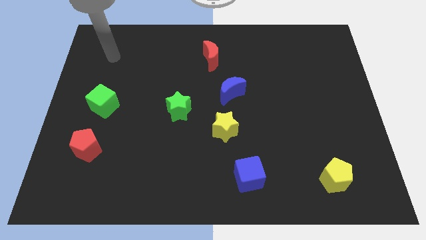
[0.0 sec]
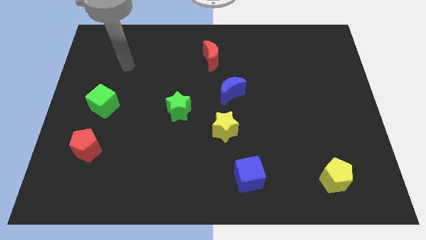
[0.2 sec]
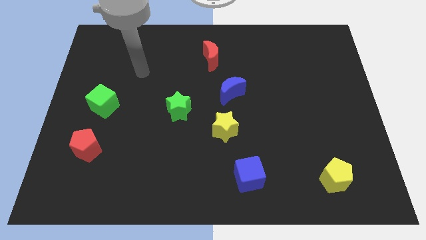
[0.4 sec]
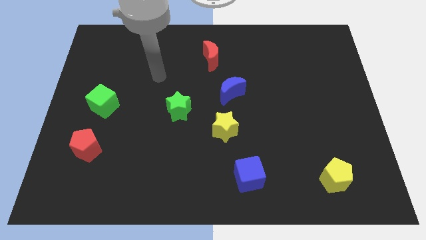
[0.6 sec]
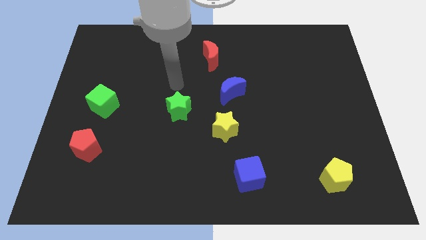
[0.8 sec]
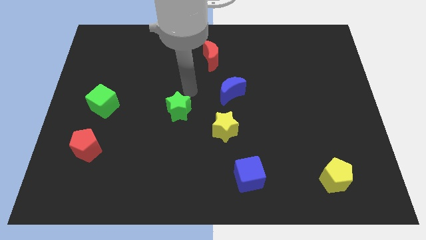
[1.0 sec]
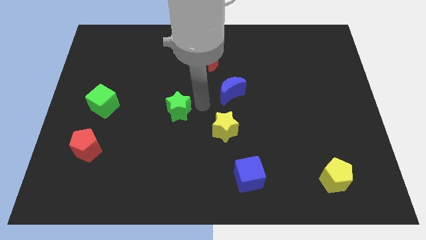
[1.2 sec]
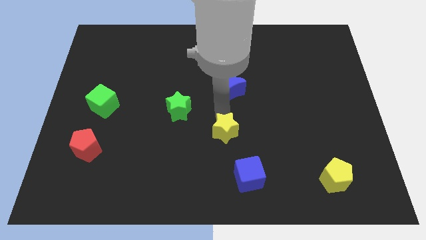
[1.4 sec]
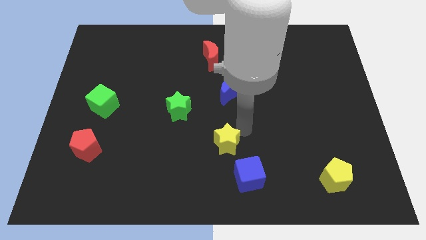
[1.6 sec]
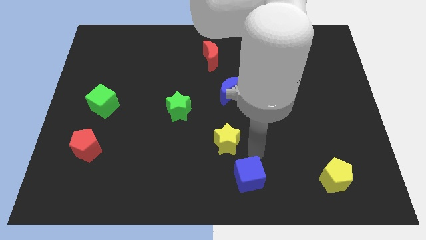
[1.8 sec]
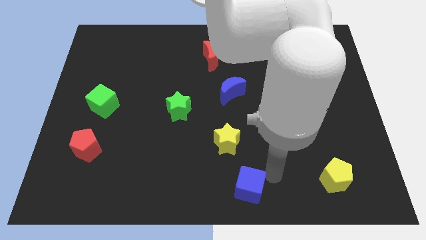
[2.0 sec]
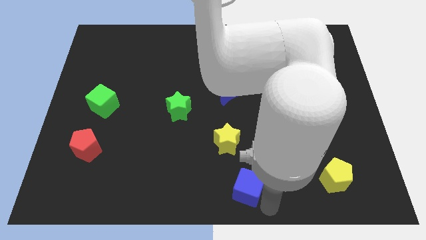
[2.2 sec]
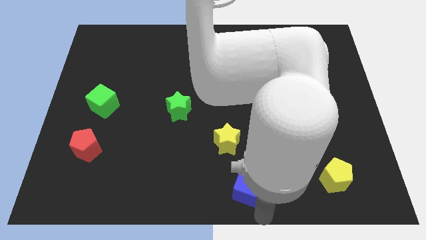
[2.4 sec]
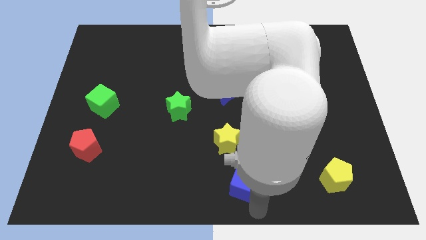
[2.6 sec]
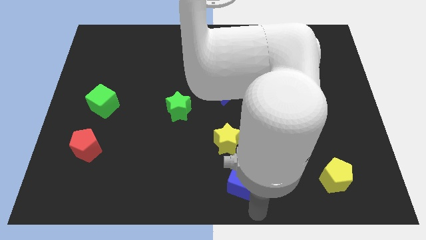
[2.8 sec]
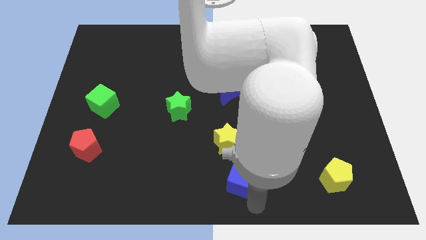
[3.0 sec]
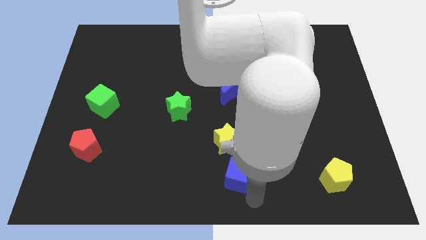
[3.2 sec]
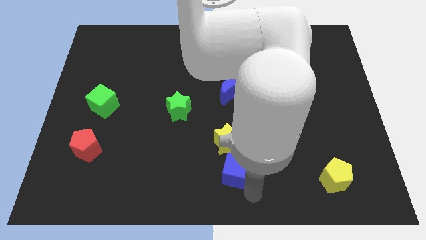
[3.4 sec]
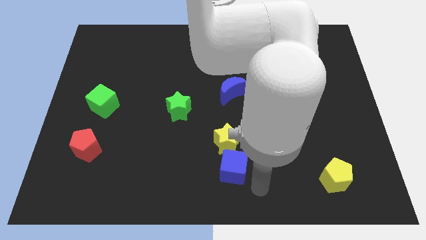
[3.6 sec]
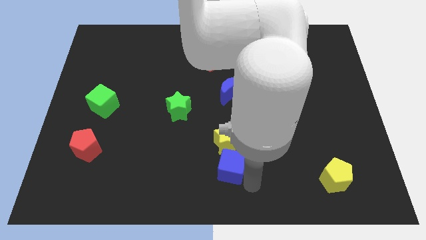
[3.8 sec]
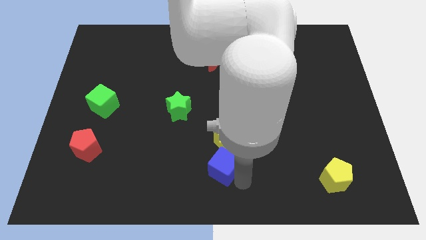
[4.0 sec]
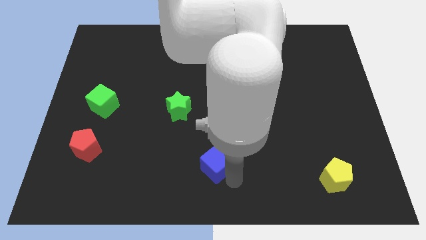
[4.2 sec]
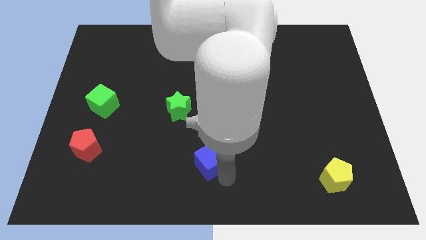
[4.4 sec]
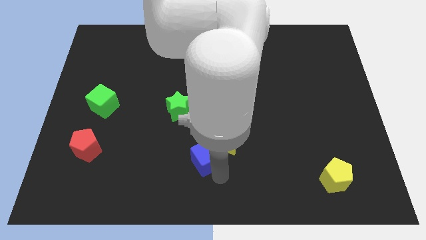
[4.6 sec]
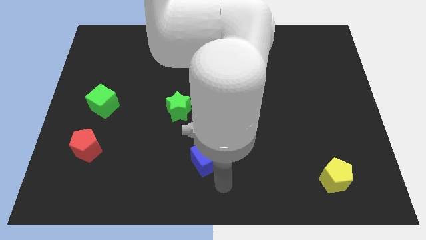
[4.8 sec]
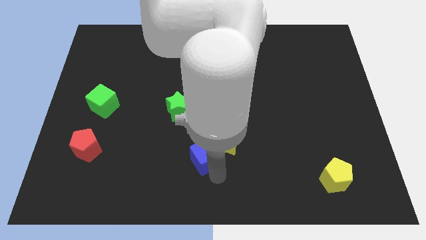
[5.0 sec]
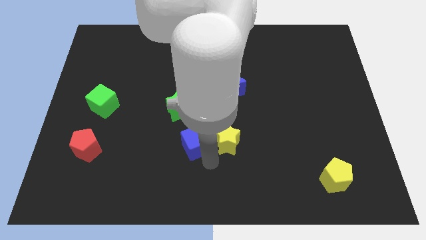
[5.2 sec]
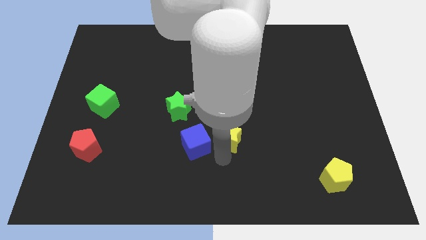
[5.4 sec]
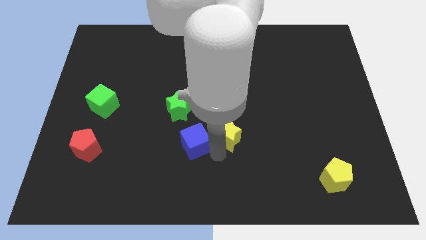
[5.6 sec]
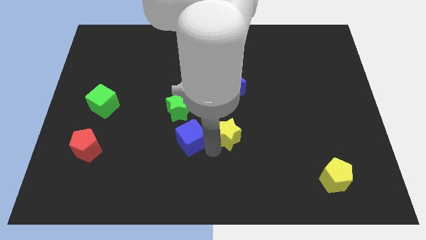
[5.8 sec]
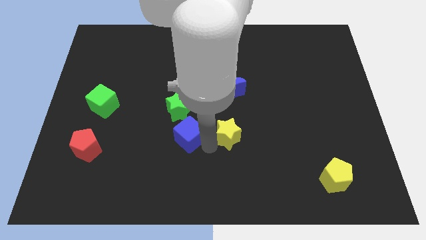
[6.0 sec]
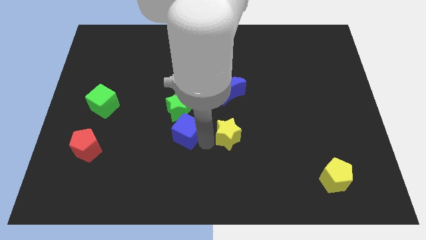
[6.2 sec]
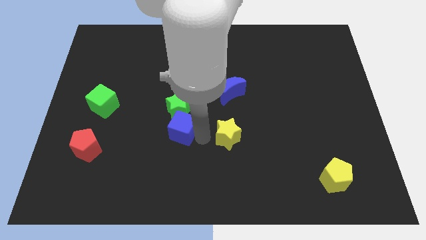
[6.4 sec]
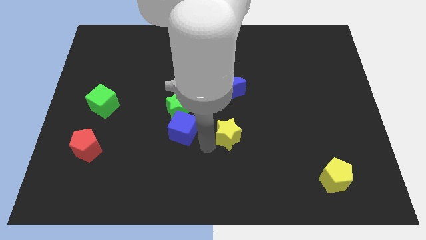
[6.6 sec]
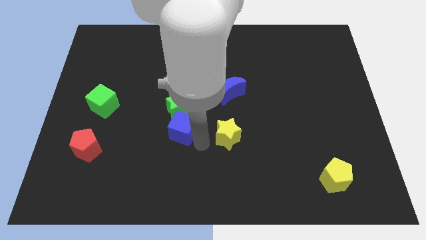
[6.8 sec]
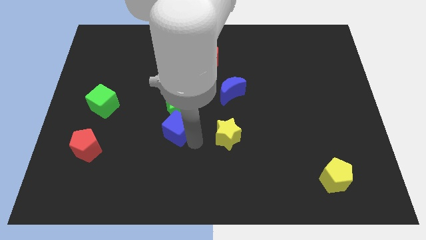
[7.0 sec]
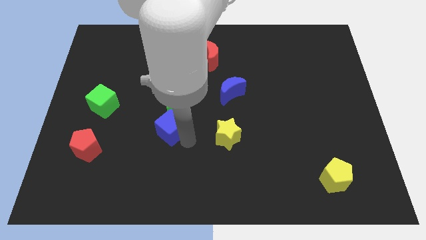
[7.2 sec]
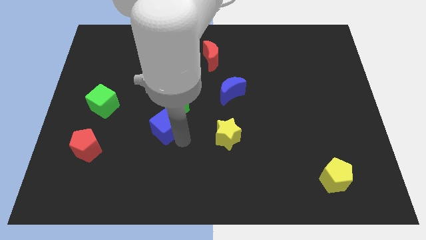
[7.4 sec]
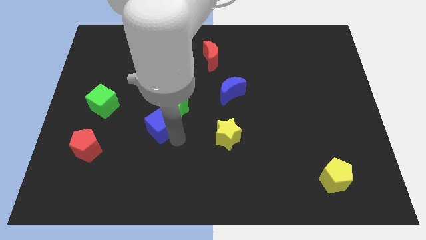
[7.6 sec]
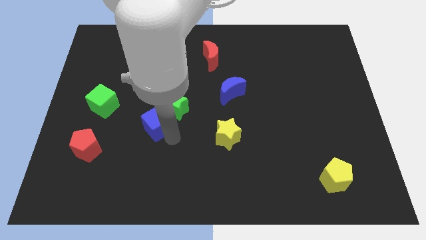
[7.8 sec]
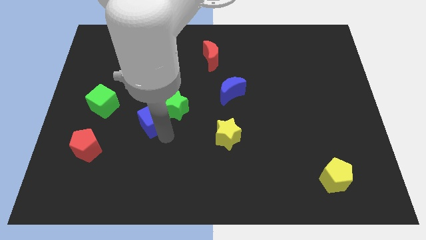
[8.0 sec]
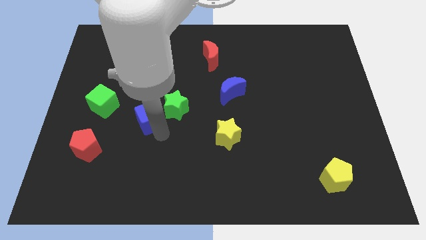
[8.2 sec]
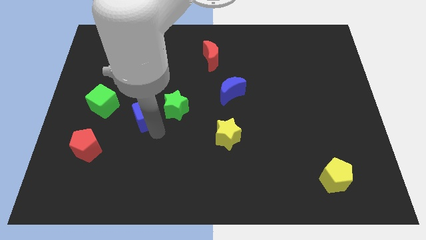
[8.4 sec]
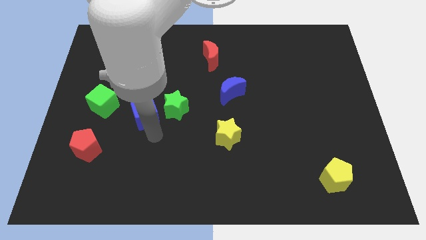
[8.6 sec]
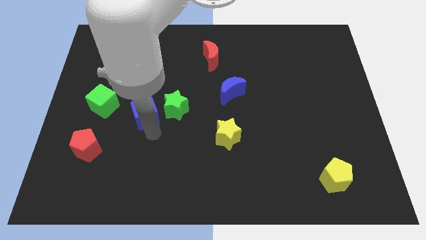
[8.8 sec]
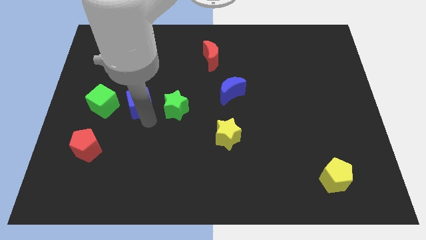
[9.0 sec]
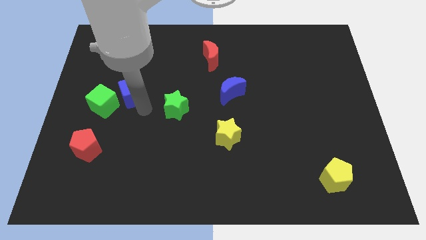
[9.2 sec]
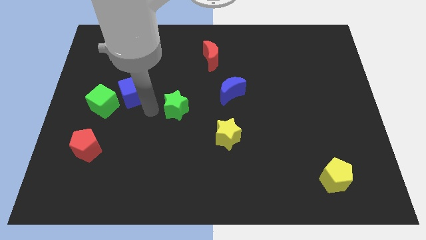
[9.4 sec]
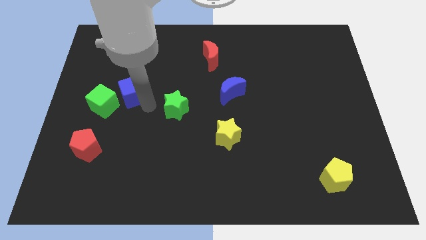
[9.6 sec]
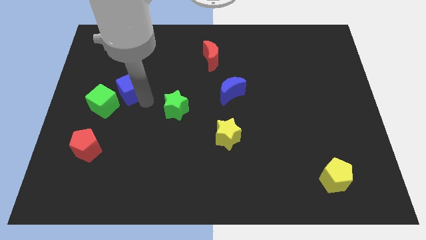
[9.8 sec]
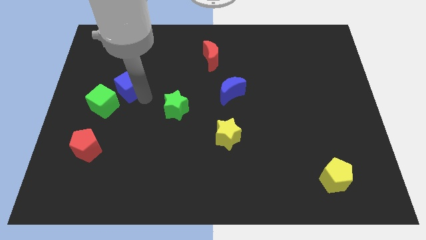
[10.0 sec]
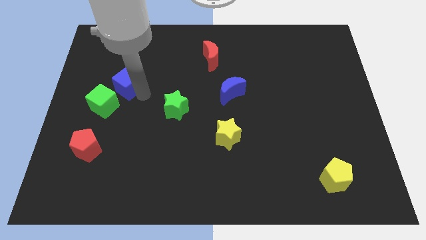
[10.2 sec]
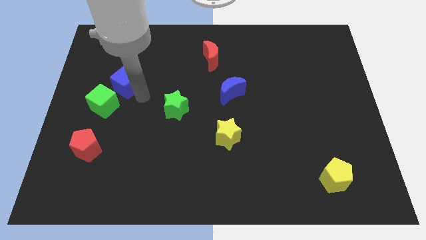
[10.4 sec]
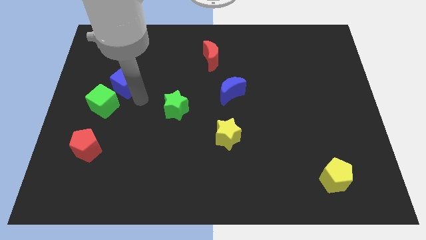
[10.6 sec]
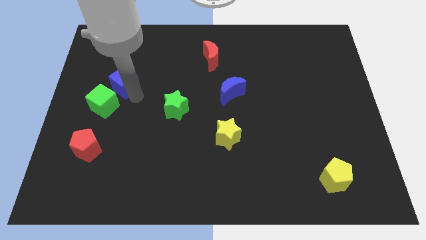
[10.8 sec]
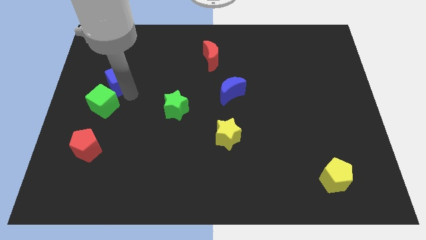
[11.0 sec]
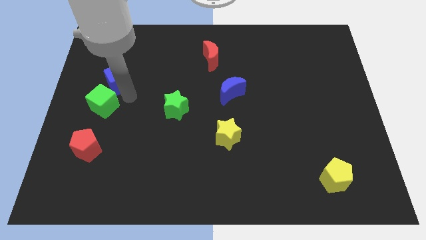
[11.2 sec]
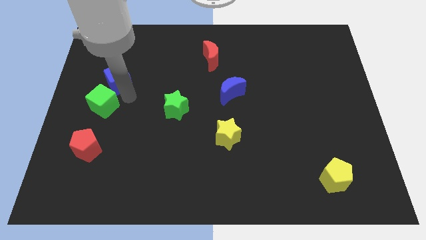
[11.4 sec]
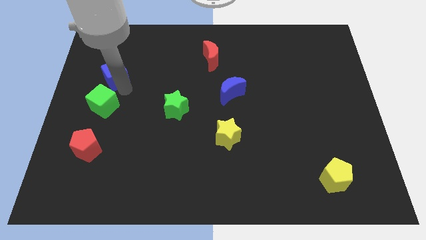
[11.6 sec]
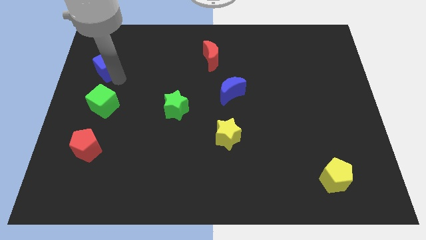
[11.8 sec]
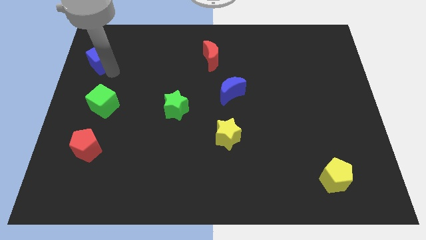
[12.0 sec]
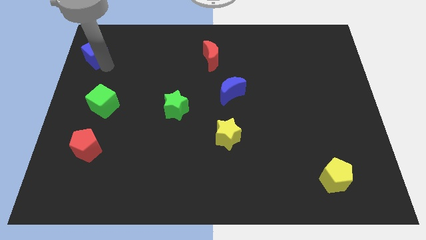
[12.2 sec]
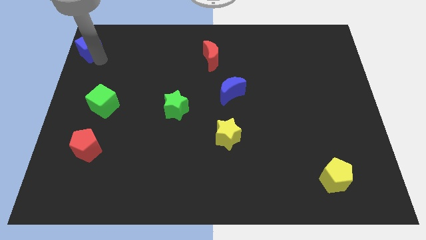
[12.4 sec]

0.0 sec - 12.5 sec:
move the blue cube to the top left corner
